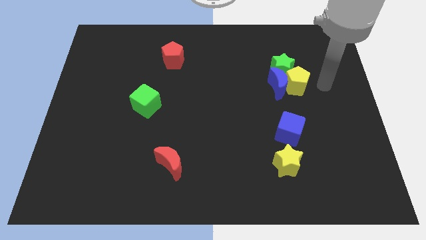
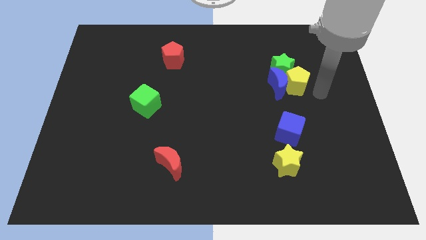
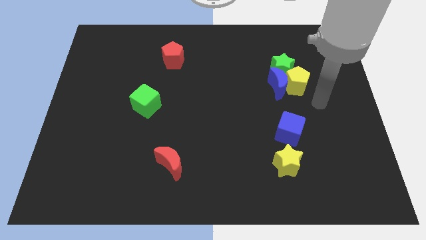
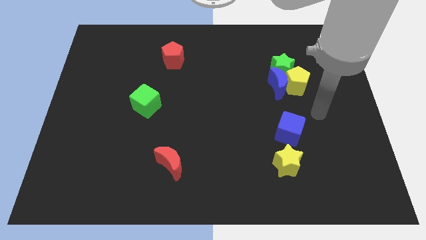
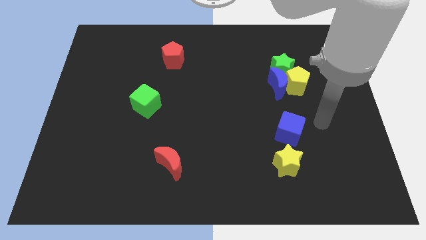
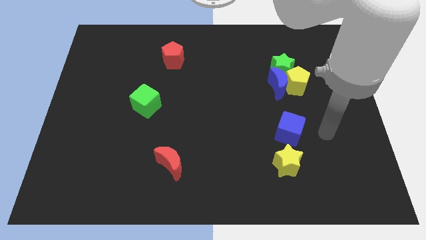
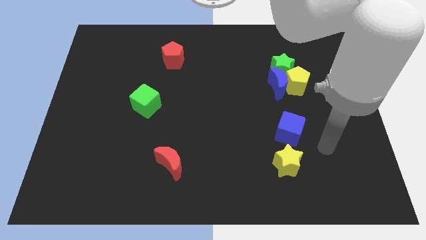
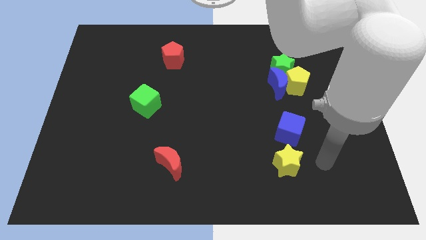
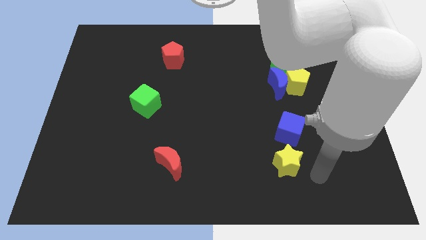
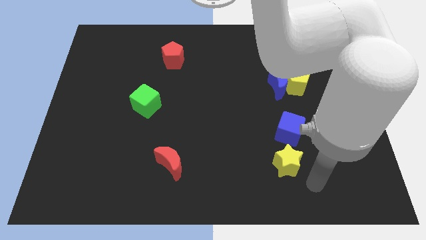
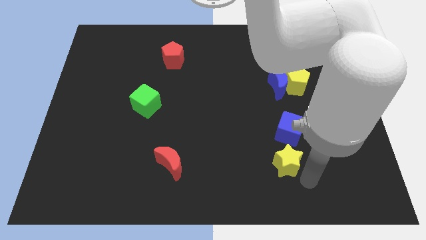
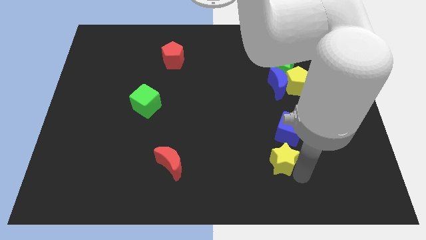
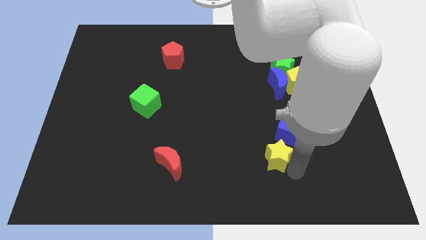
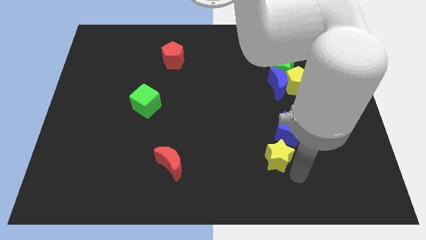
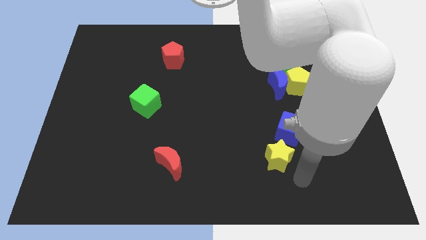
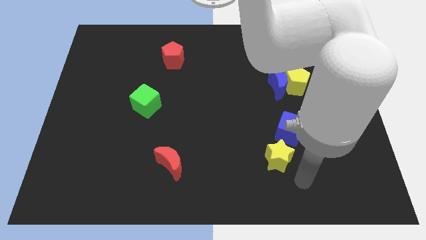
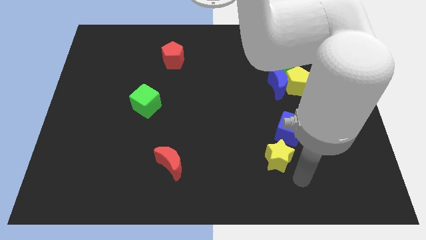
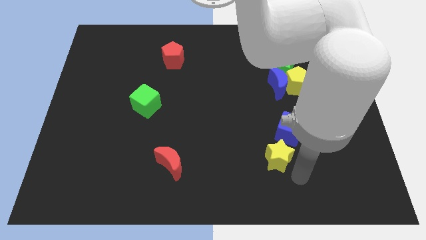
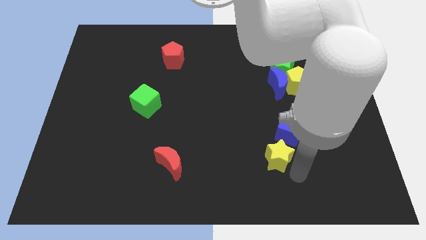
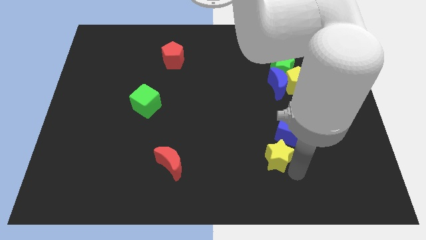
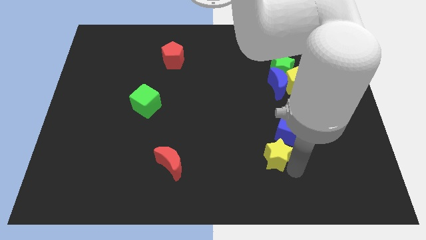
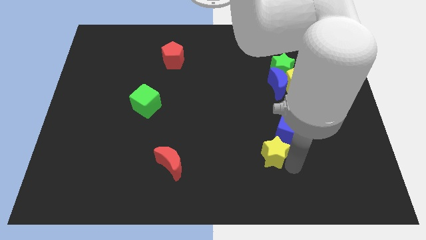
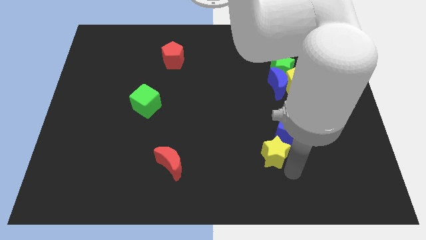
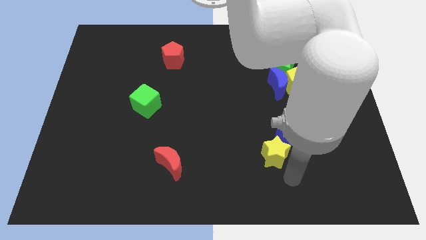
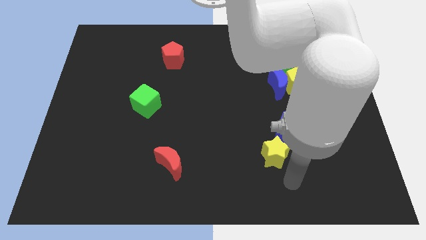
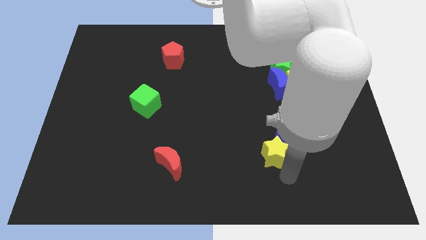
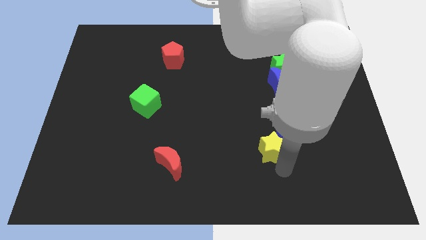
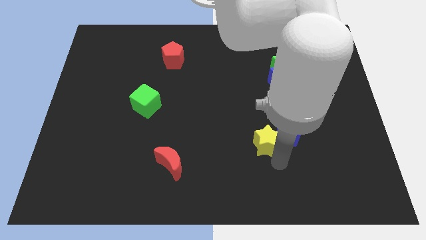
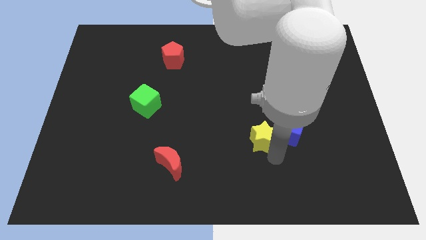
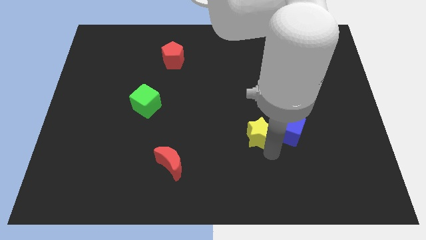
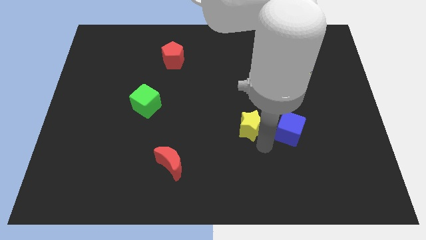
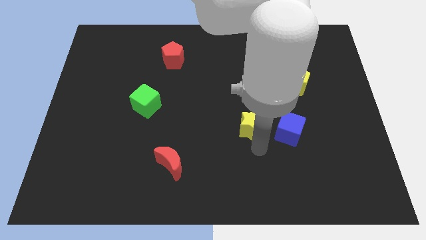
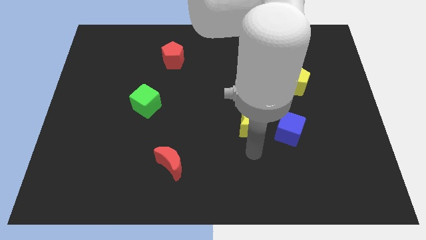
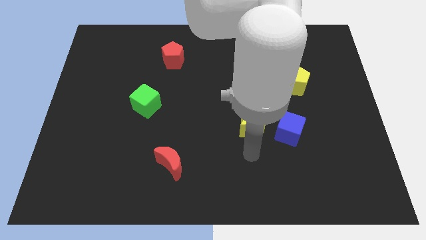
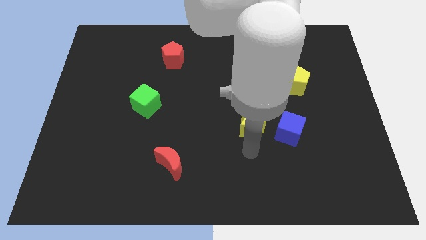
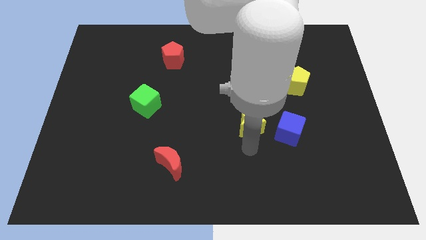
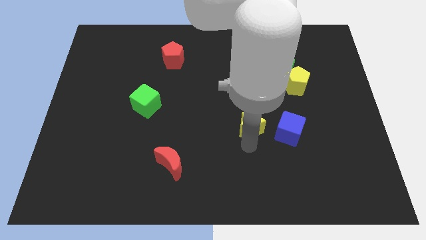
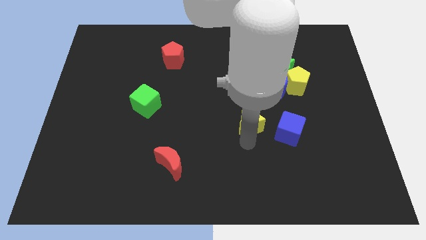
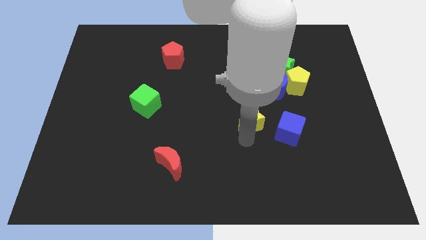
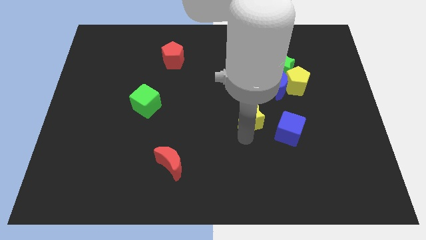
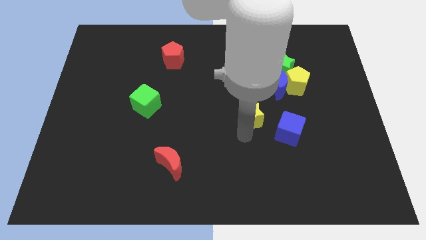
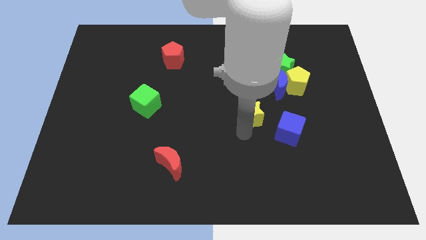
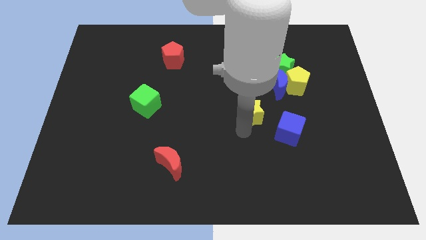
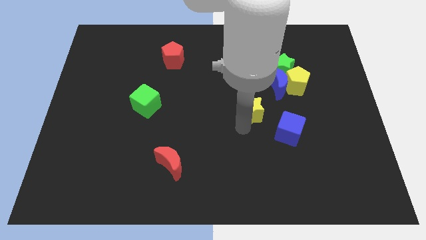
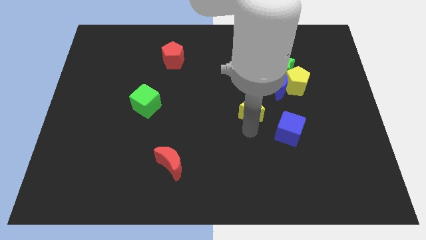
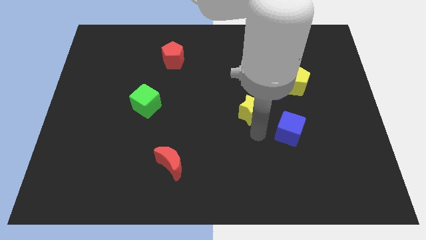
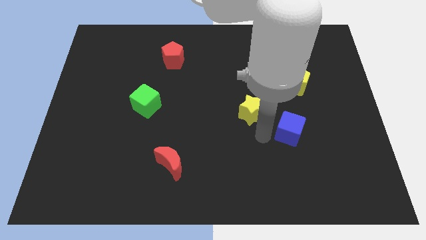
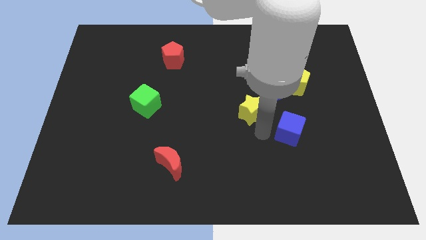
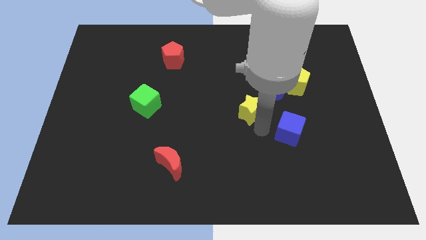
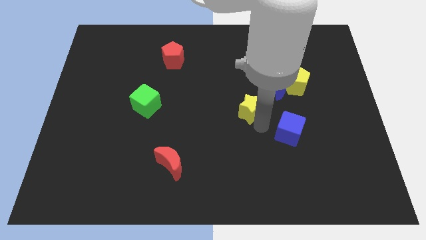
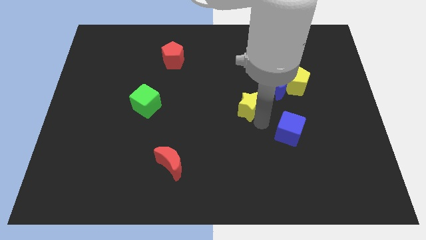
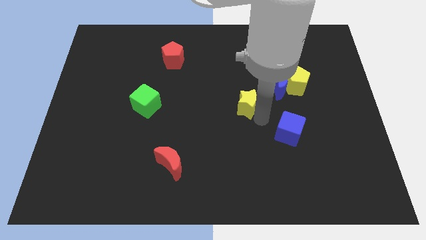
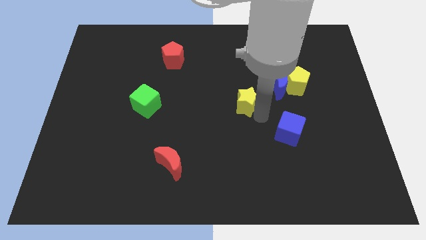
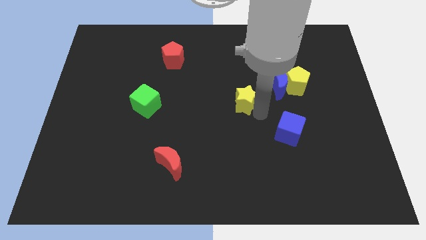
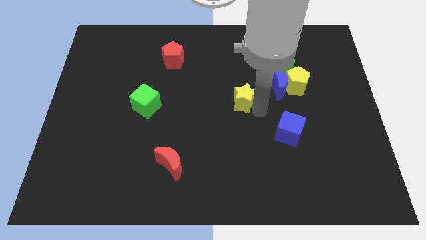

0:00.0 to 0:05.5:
put the yellow star just left of the blue moon

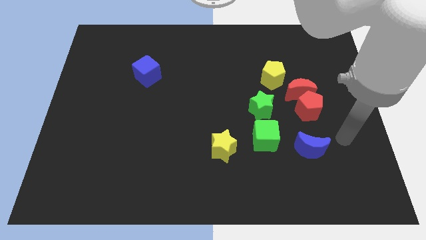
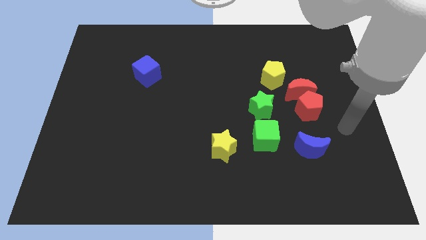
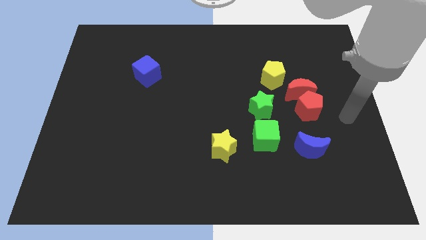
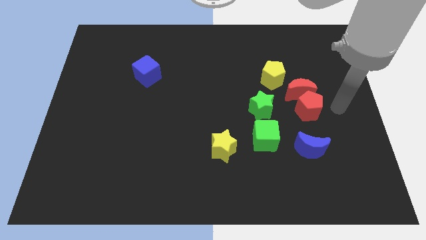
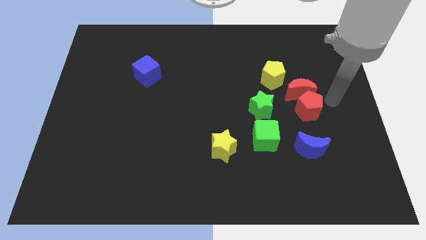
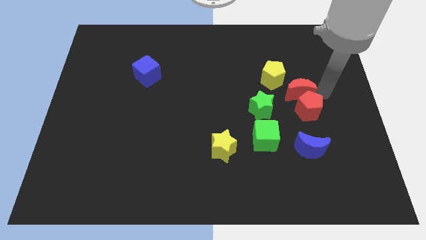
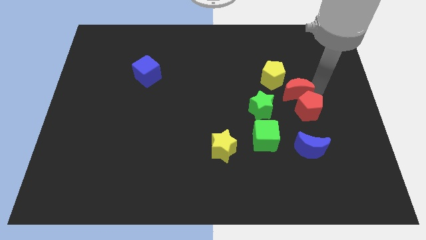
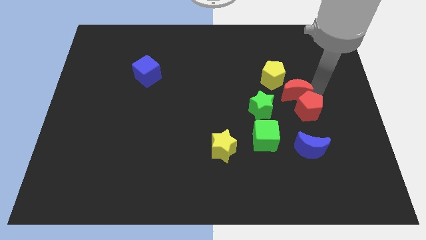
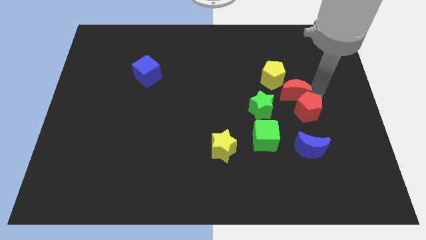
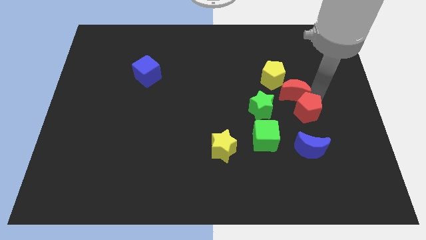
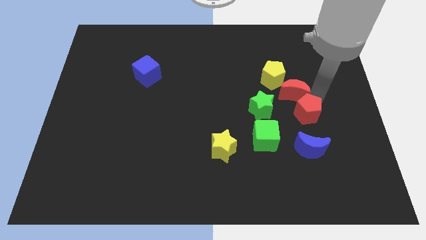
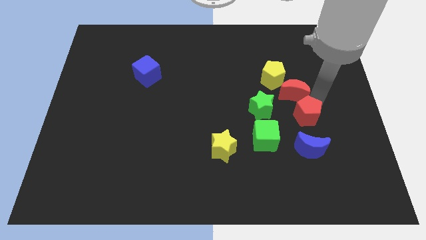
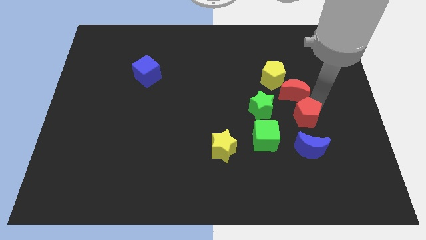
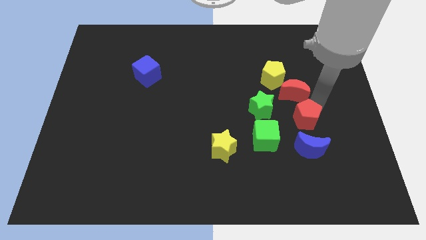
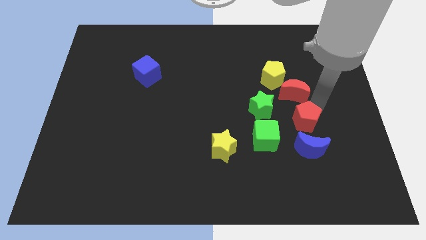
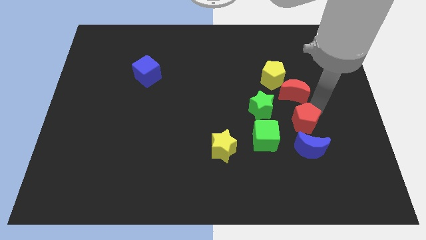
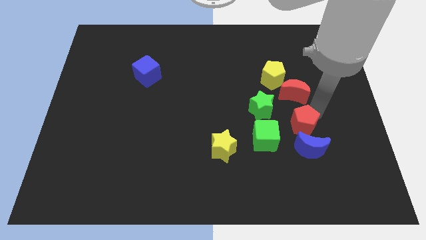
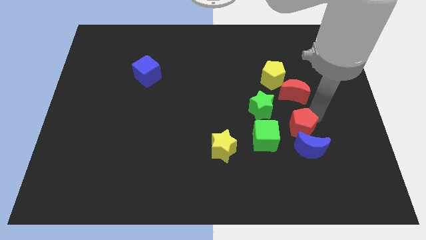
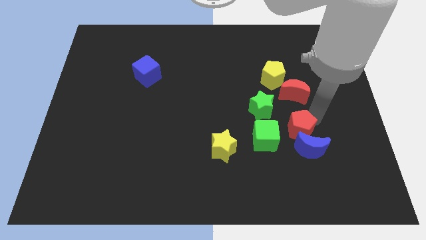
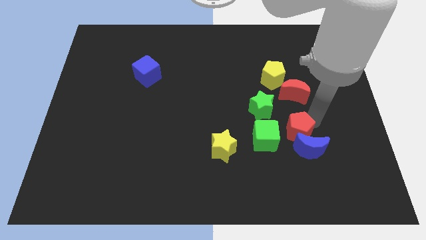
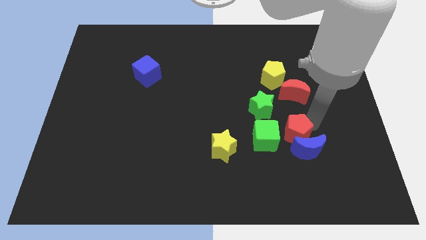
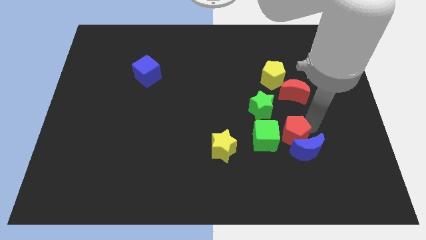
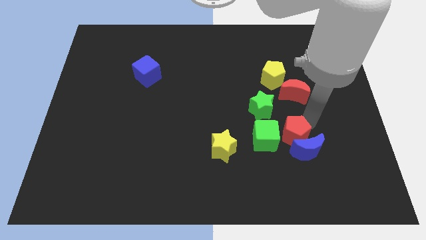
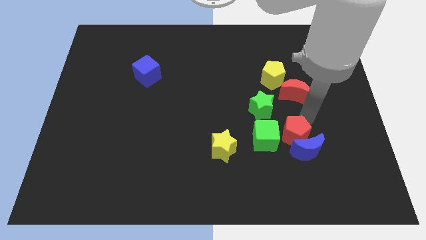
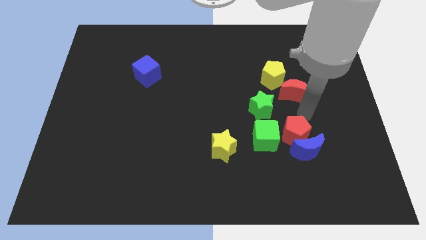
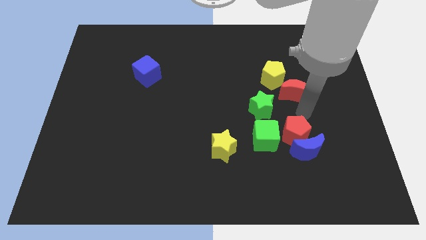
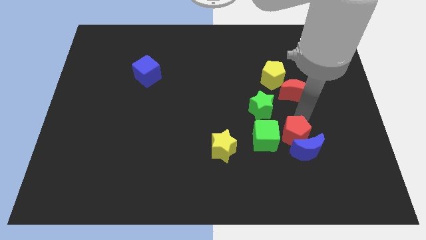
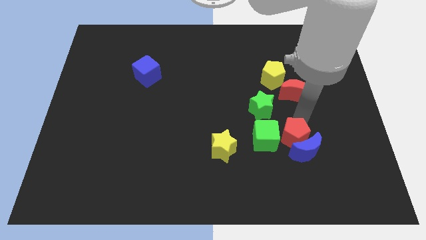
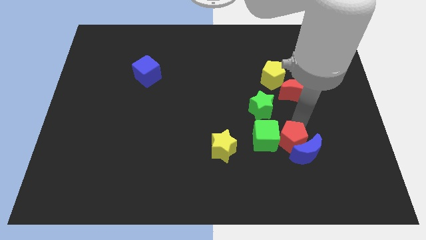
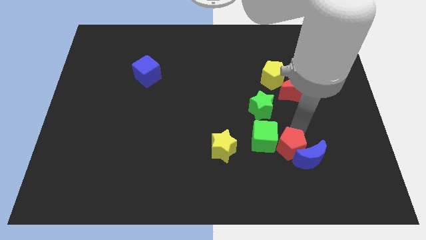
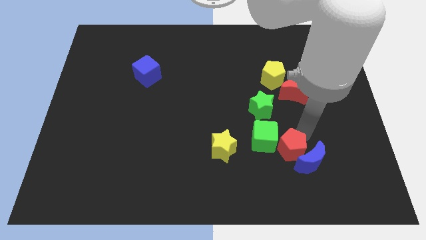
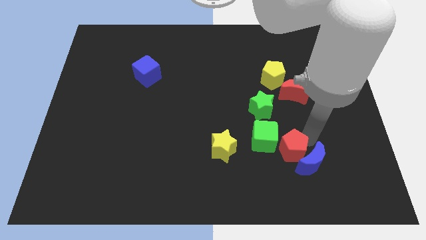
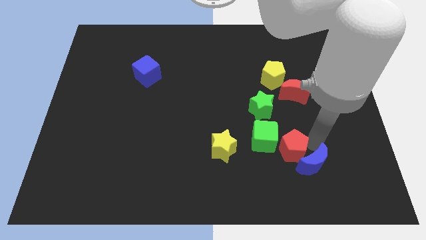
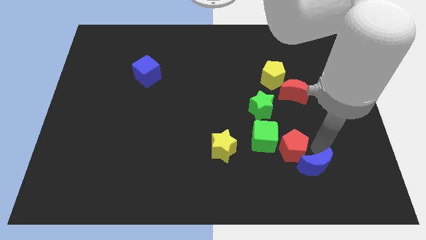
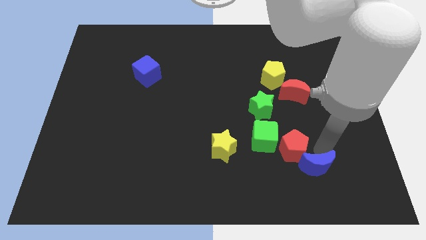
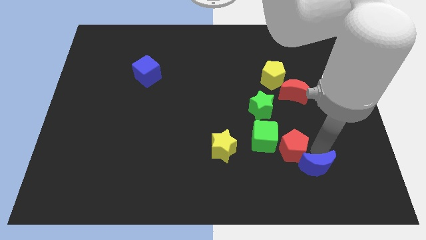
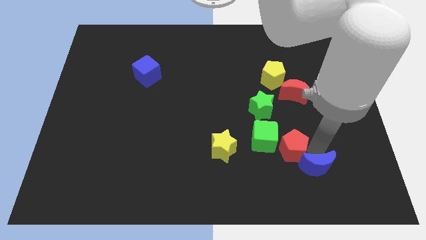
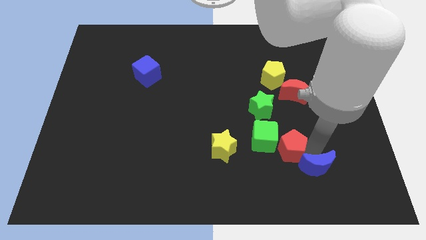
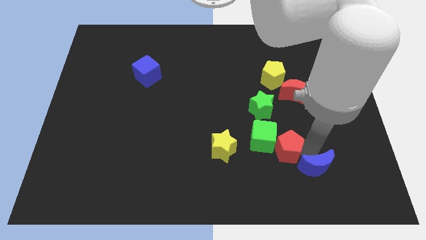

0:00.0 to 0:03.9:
slide the red pentagon to the bottom of the green star
